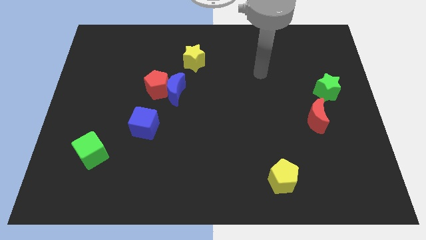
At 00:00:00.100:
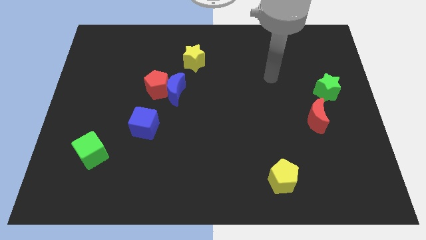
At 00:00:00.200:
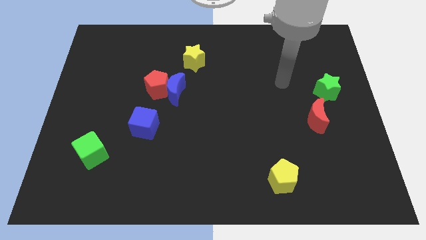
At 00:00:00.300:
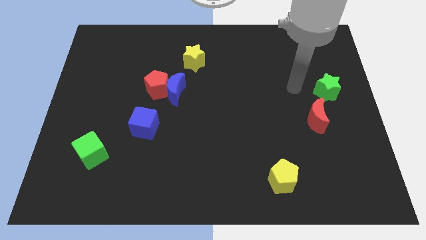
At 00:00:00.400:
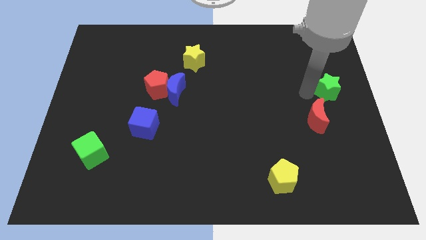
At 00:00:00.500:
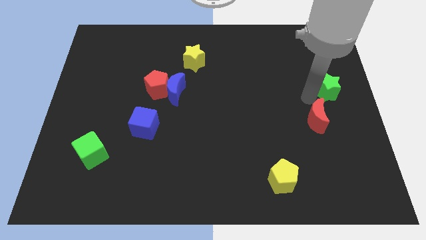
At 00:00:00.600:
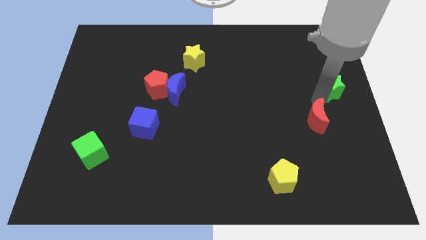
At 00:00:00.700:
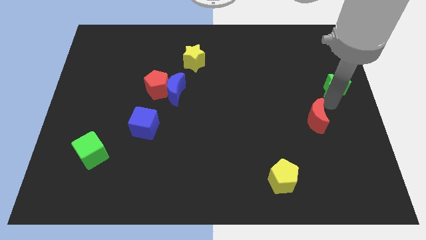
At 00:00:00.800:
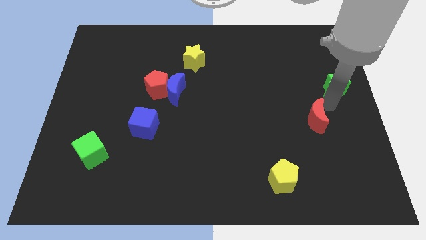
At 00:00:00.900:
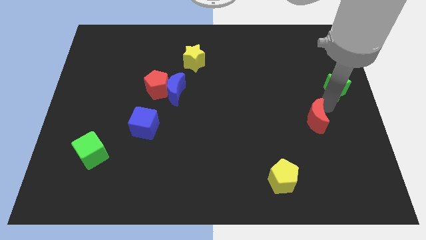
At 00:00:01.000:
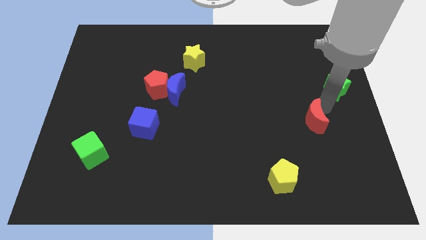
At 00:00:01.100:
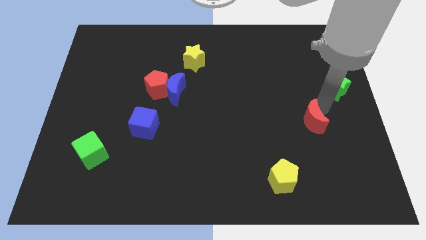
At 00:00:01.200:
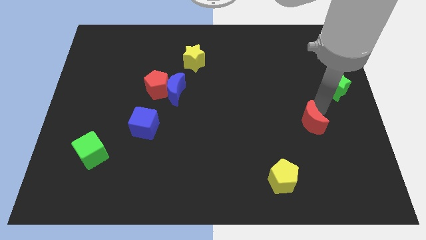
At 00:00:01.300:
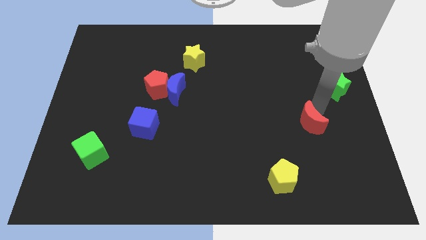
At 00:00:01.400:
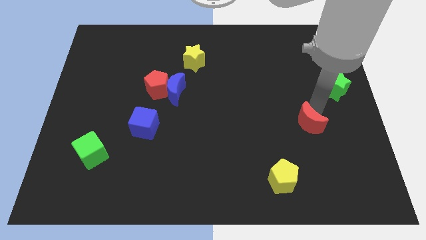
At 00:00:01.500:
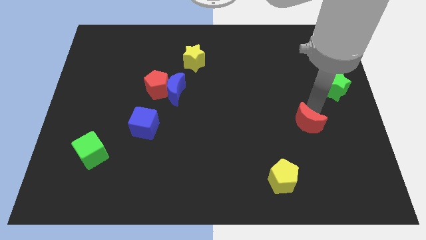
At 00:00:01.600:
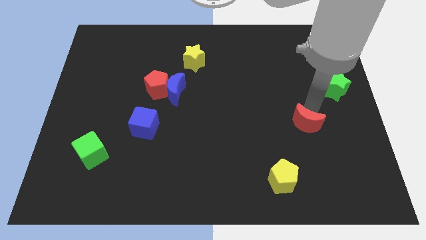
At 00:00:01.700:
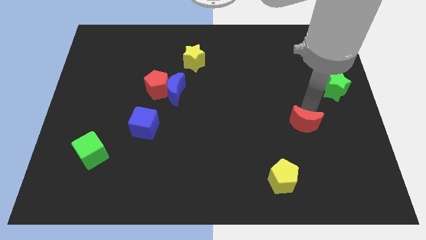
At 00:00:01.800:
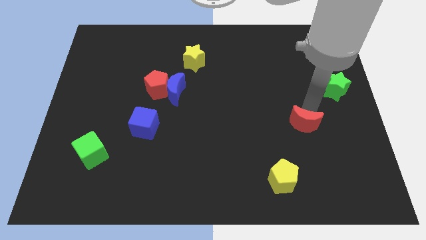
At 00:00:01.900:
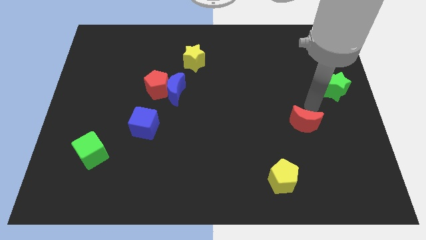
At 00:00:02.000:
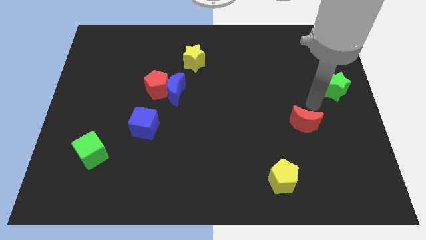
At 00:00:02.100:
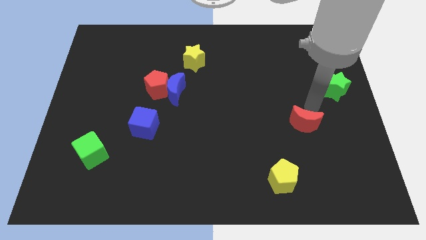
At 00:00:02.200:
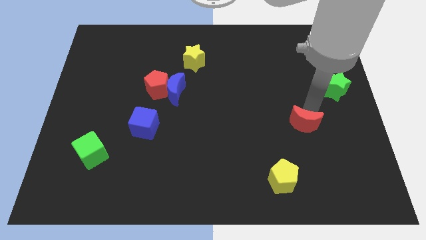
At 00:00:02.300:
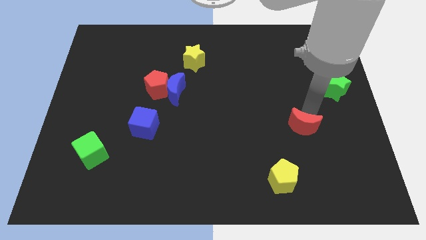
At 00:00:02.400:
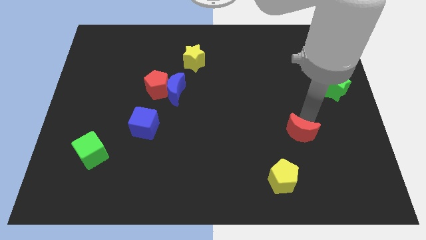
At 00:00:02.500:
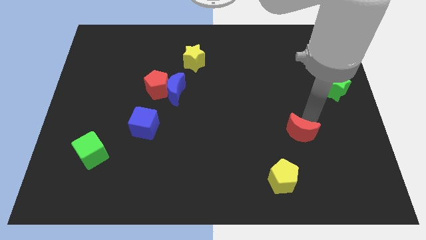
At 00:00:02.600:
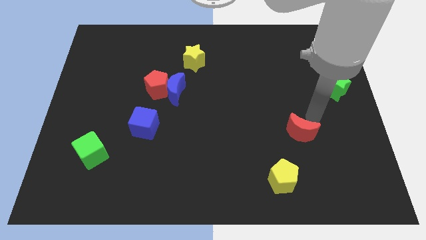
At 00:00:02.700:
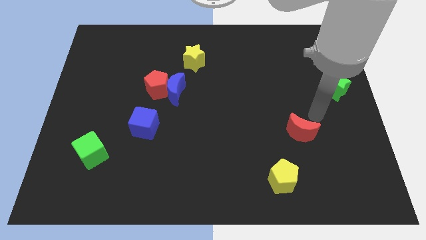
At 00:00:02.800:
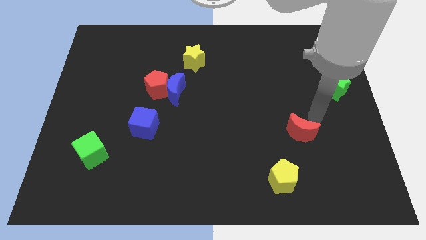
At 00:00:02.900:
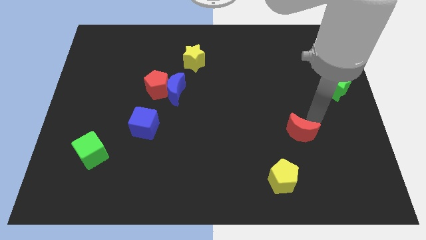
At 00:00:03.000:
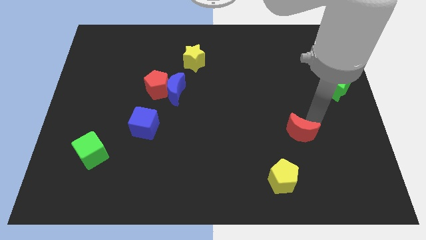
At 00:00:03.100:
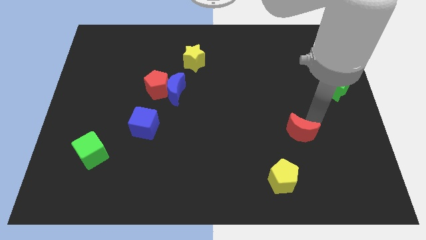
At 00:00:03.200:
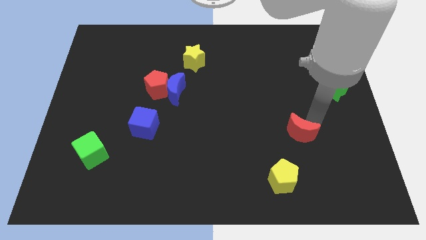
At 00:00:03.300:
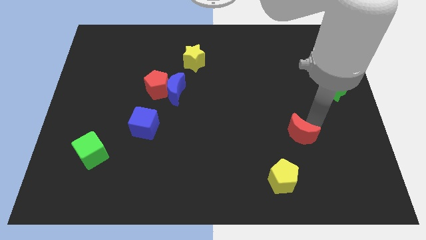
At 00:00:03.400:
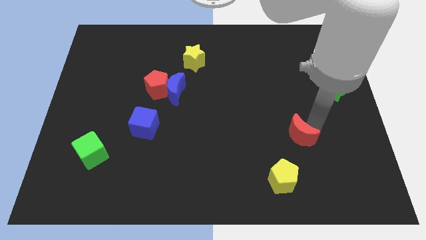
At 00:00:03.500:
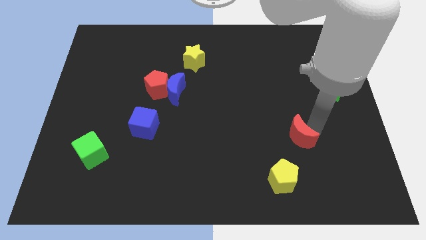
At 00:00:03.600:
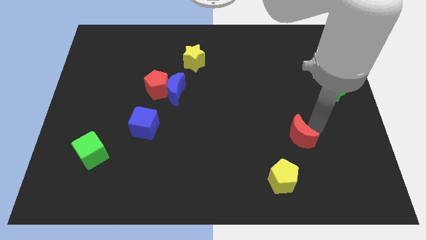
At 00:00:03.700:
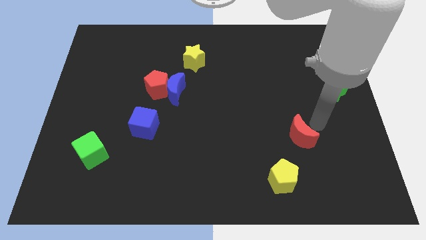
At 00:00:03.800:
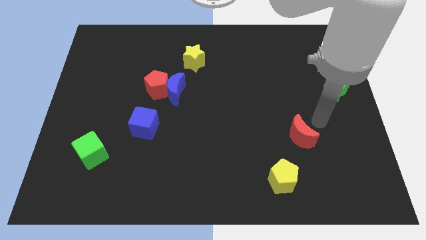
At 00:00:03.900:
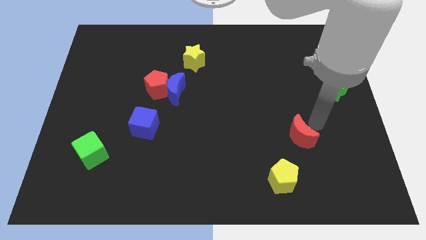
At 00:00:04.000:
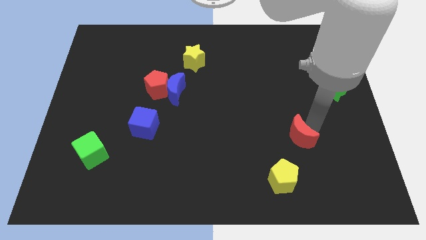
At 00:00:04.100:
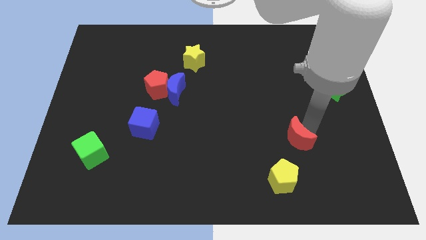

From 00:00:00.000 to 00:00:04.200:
move the red moon downwards and left diagonally somewhat

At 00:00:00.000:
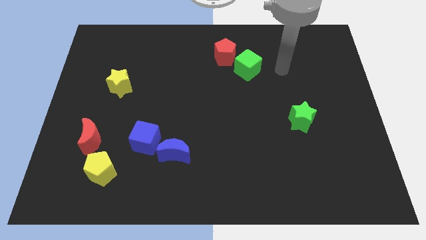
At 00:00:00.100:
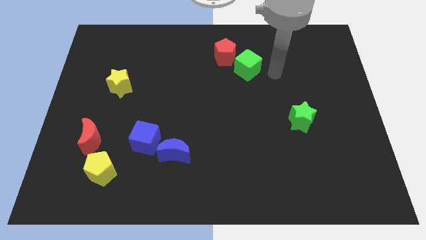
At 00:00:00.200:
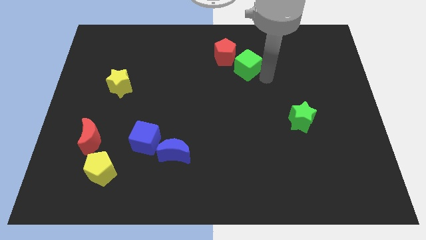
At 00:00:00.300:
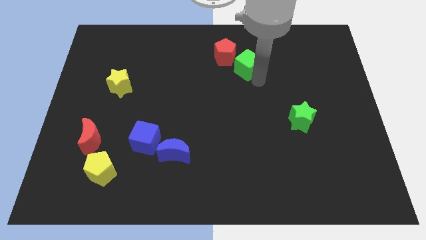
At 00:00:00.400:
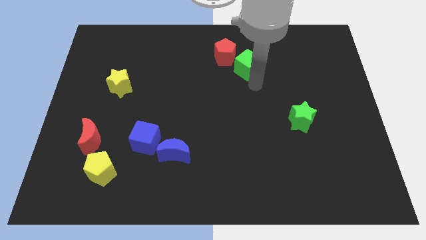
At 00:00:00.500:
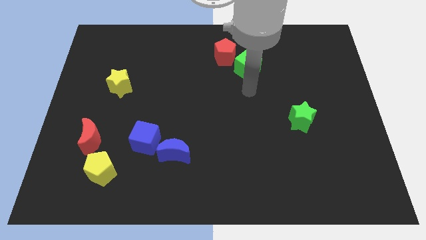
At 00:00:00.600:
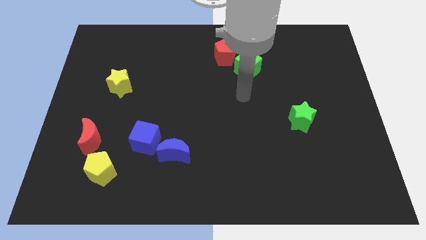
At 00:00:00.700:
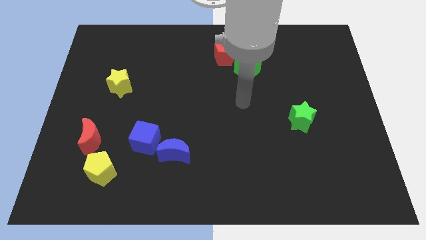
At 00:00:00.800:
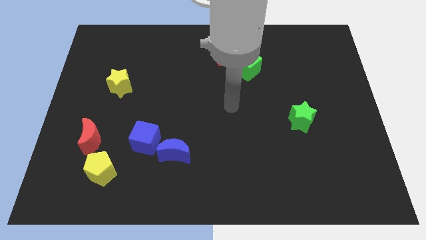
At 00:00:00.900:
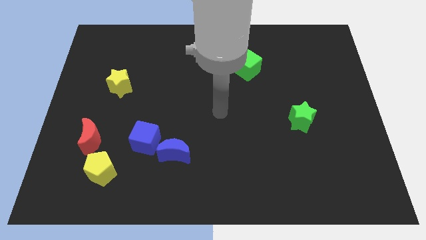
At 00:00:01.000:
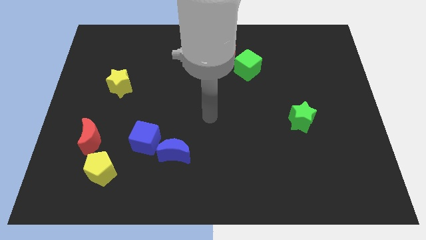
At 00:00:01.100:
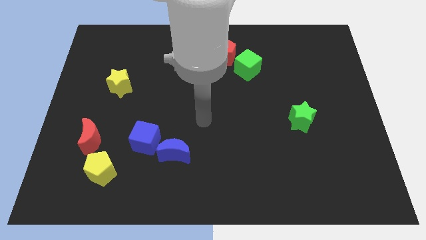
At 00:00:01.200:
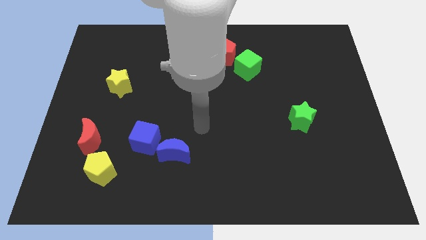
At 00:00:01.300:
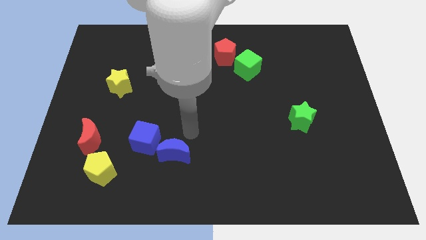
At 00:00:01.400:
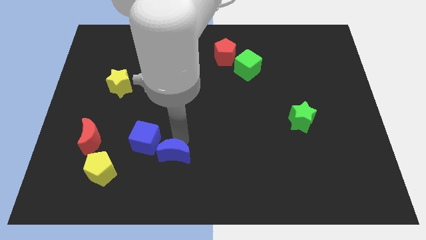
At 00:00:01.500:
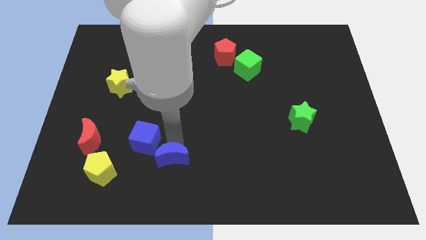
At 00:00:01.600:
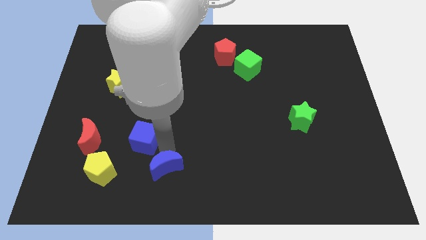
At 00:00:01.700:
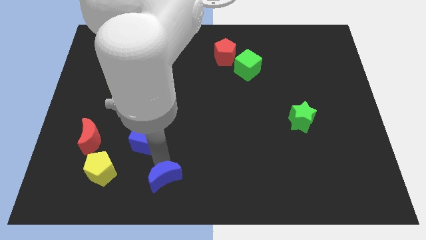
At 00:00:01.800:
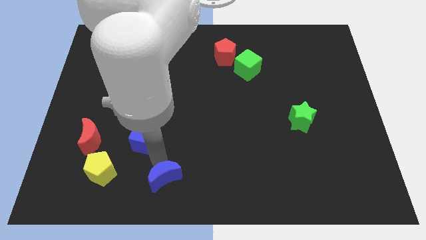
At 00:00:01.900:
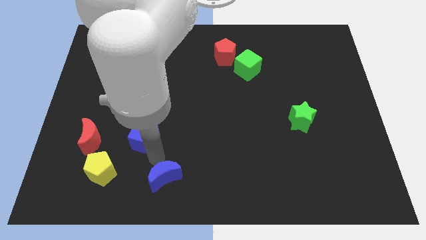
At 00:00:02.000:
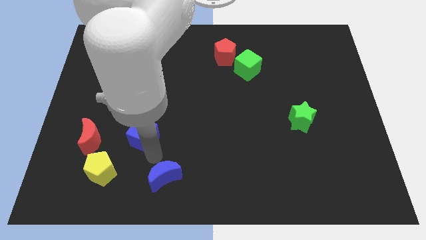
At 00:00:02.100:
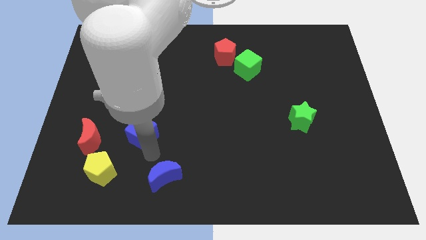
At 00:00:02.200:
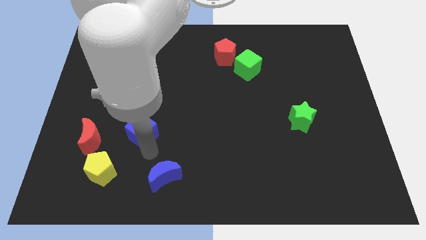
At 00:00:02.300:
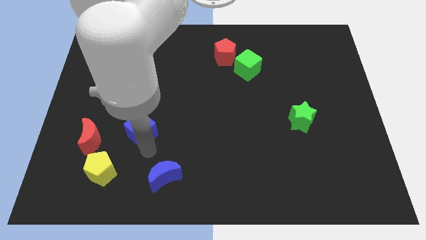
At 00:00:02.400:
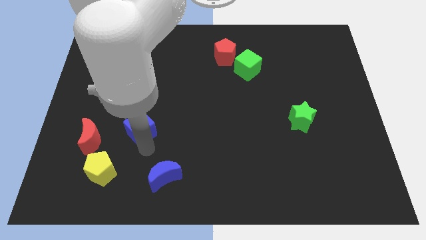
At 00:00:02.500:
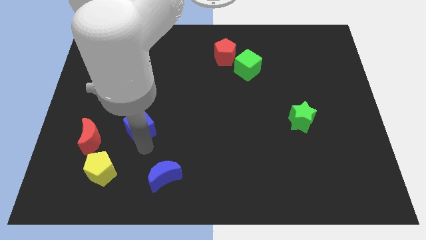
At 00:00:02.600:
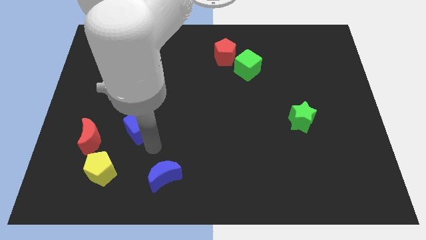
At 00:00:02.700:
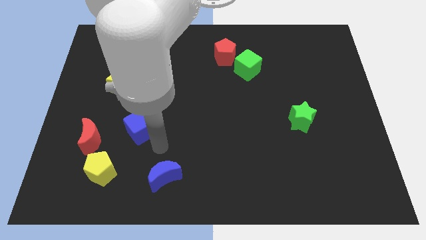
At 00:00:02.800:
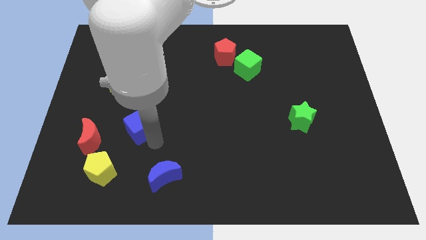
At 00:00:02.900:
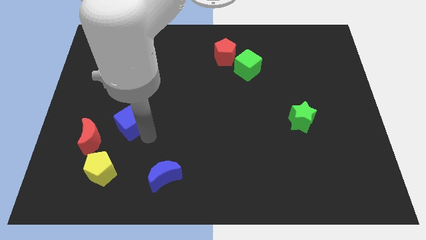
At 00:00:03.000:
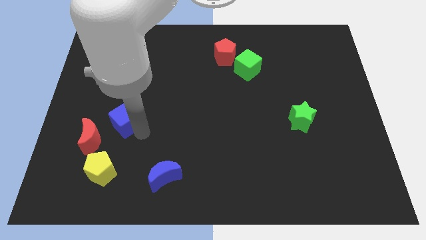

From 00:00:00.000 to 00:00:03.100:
slide the blue cube diagonally upwards and to the left slightly

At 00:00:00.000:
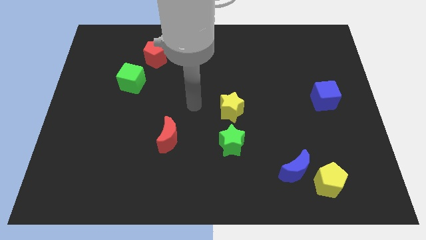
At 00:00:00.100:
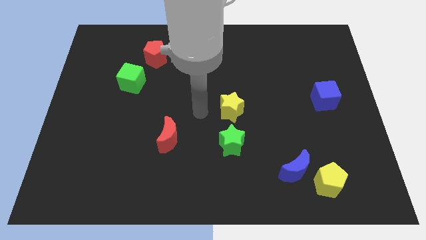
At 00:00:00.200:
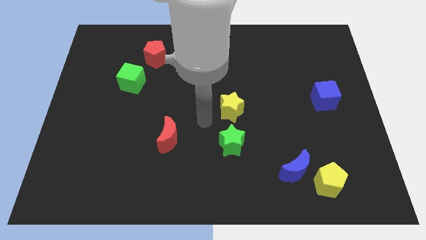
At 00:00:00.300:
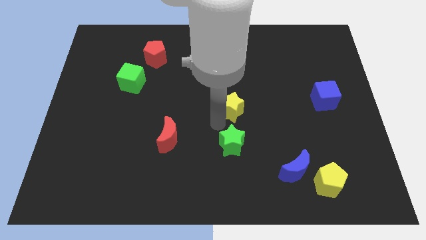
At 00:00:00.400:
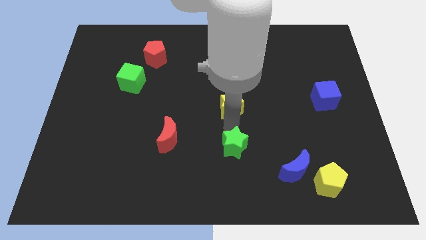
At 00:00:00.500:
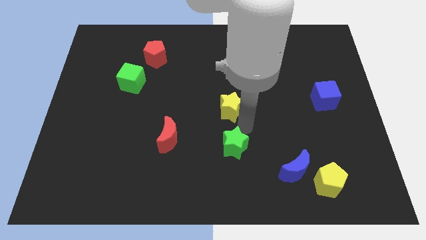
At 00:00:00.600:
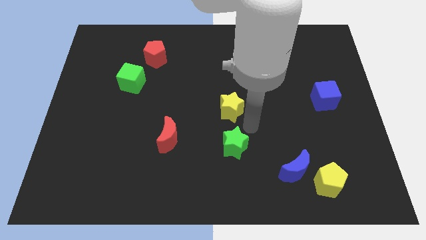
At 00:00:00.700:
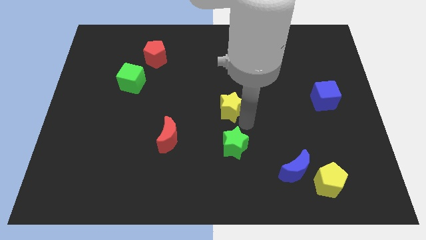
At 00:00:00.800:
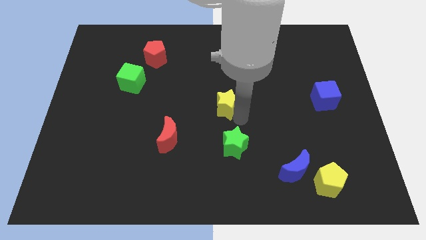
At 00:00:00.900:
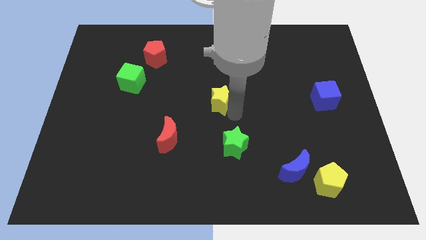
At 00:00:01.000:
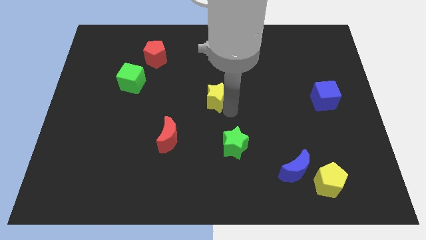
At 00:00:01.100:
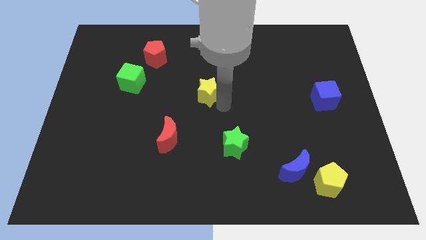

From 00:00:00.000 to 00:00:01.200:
move the yellow star a little bit diagonally up and to the left
